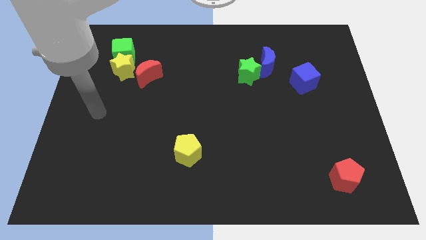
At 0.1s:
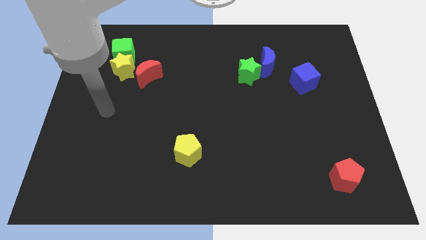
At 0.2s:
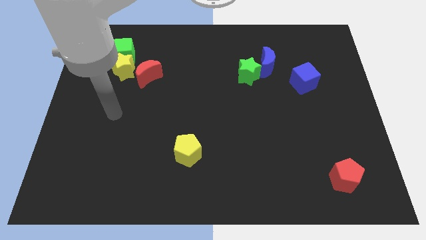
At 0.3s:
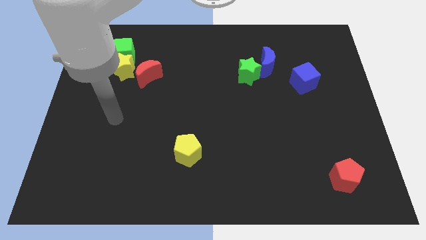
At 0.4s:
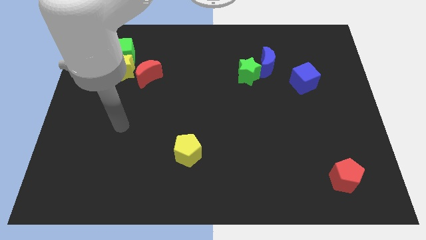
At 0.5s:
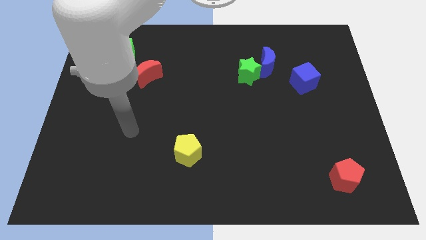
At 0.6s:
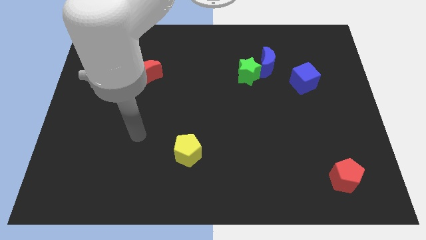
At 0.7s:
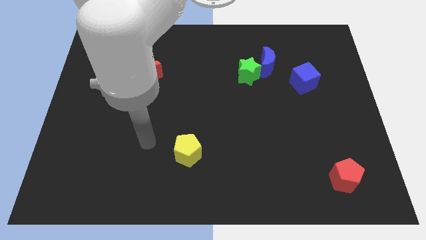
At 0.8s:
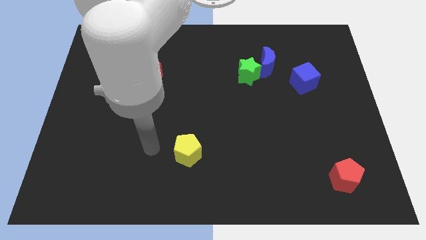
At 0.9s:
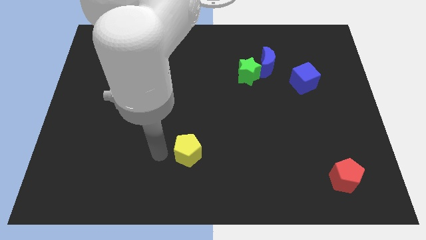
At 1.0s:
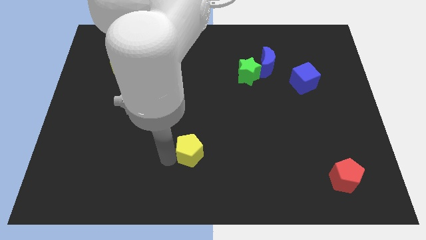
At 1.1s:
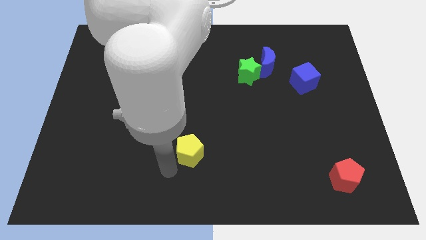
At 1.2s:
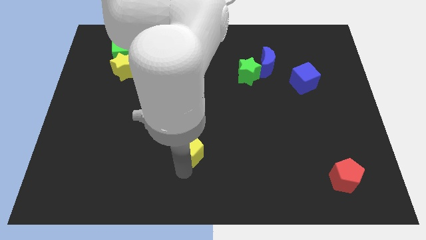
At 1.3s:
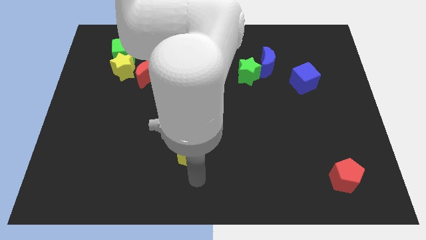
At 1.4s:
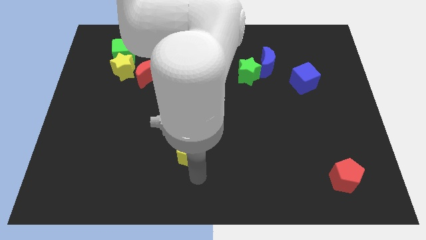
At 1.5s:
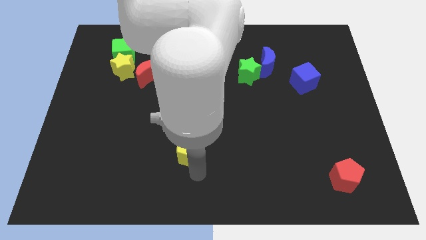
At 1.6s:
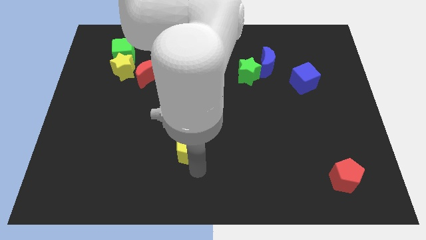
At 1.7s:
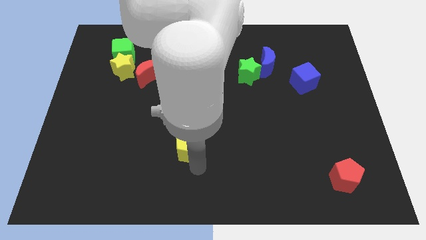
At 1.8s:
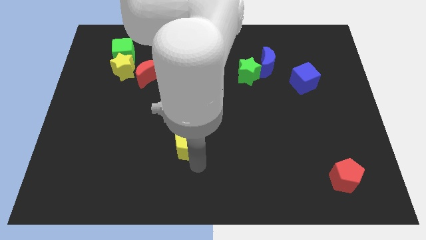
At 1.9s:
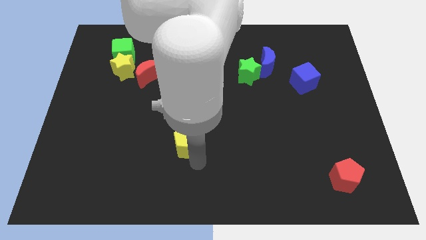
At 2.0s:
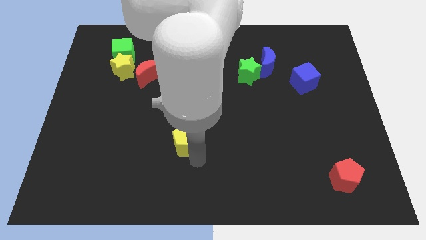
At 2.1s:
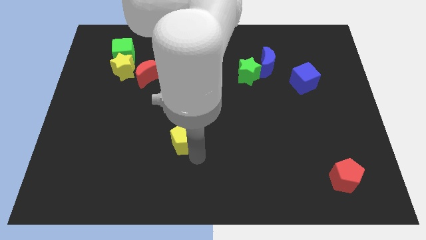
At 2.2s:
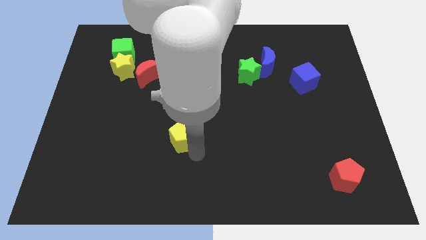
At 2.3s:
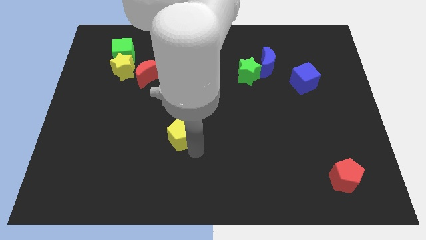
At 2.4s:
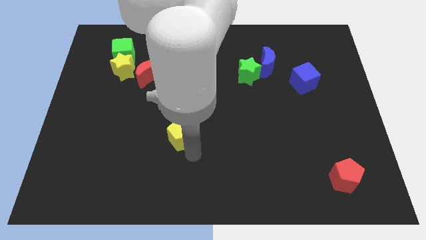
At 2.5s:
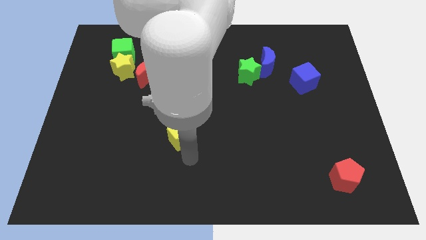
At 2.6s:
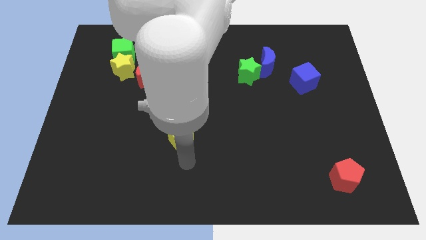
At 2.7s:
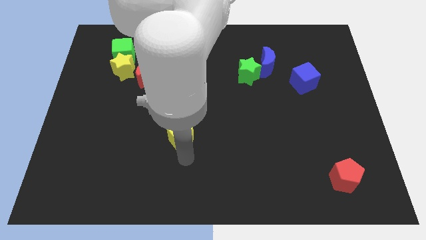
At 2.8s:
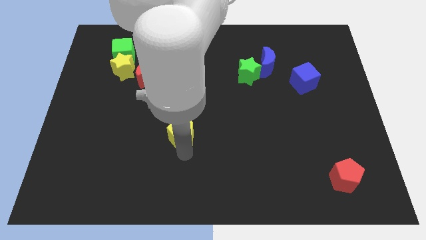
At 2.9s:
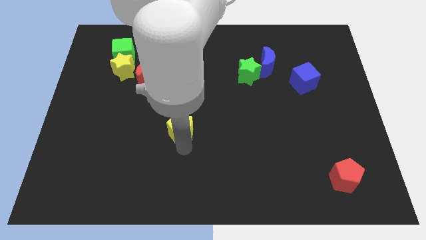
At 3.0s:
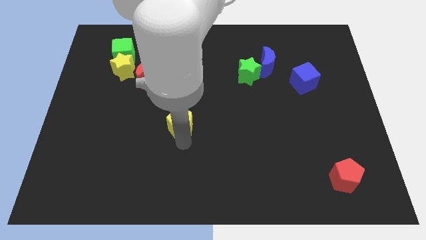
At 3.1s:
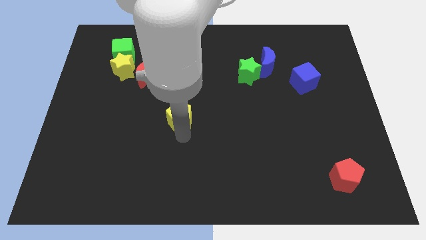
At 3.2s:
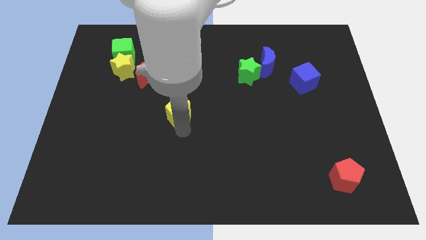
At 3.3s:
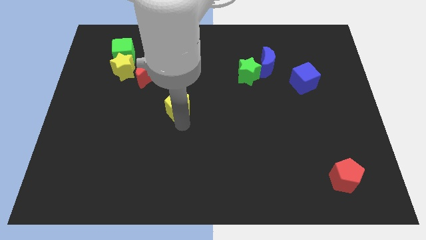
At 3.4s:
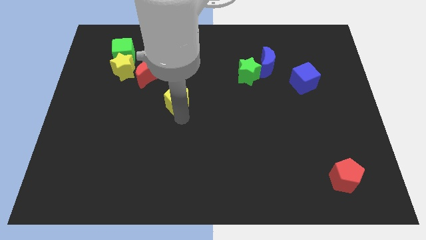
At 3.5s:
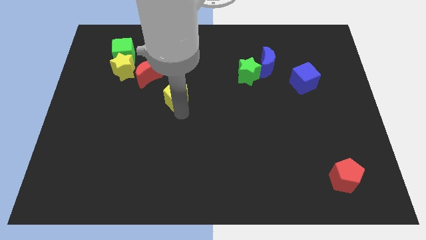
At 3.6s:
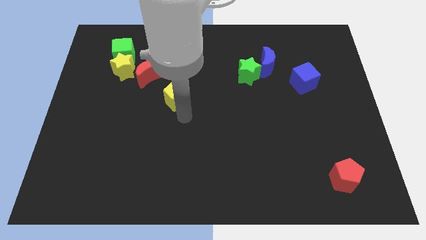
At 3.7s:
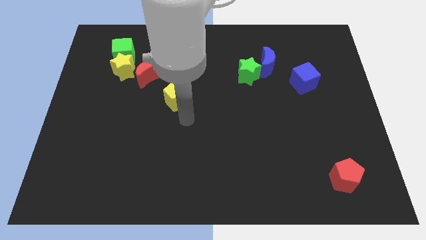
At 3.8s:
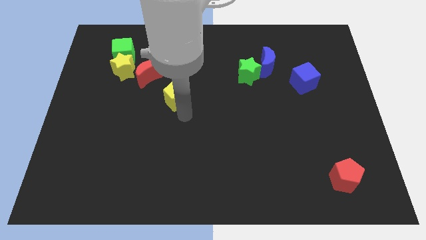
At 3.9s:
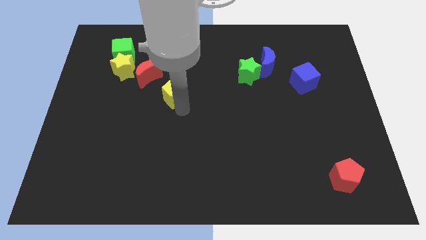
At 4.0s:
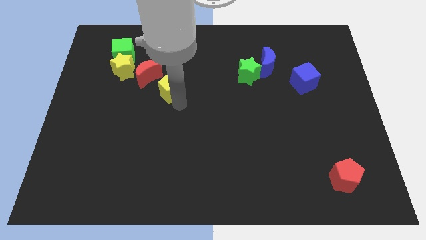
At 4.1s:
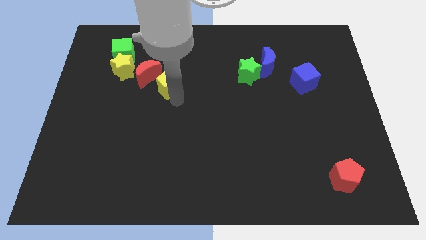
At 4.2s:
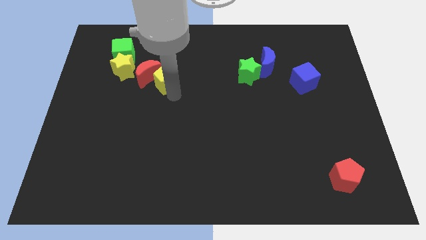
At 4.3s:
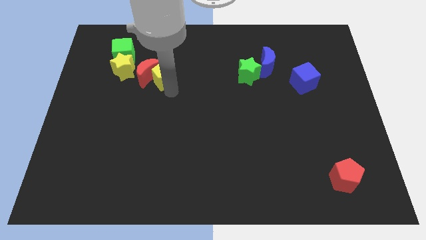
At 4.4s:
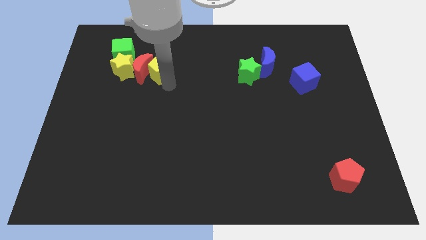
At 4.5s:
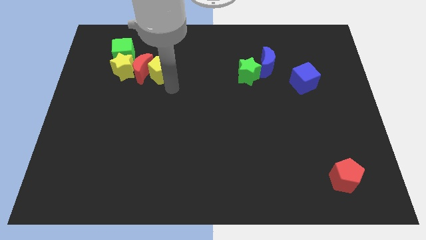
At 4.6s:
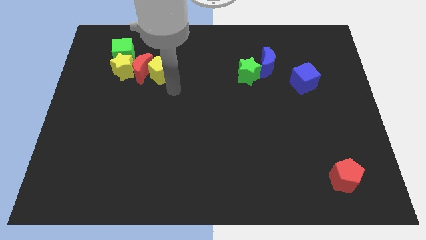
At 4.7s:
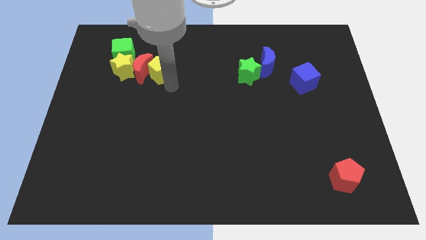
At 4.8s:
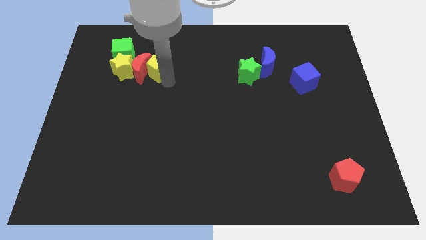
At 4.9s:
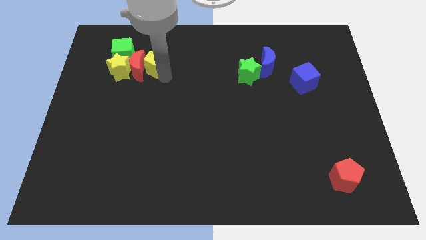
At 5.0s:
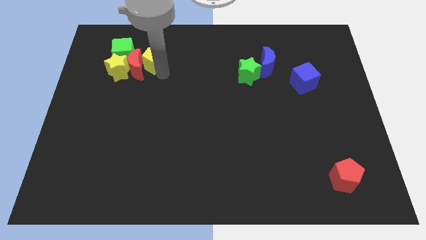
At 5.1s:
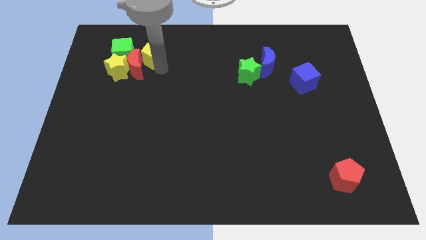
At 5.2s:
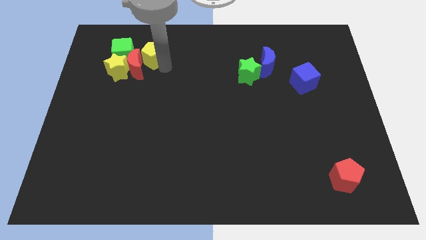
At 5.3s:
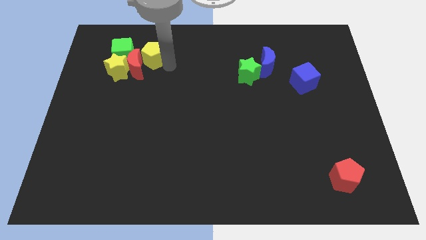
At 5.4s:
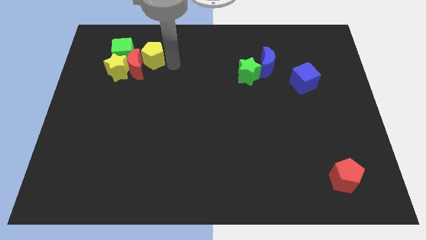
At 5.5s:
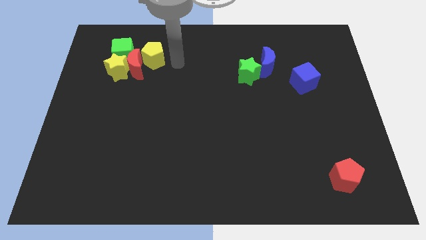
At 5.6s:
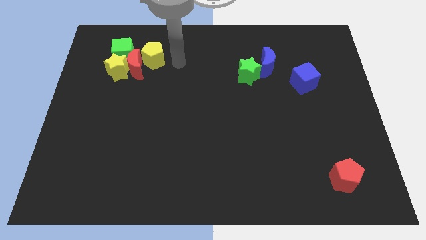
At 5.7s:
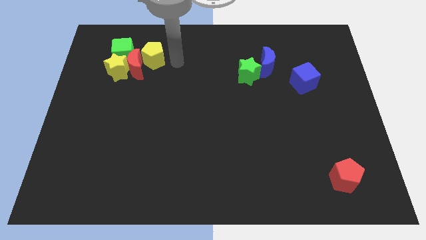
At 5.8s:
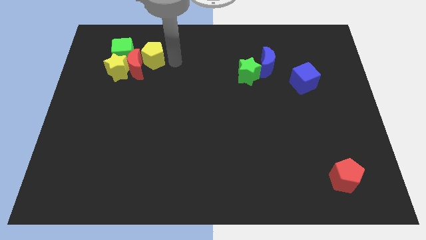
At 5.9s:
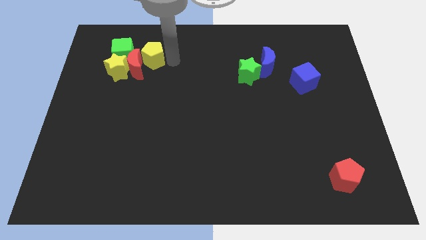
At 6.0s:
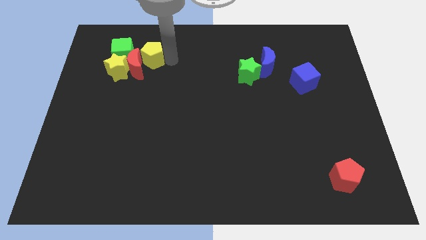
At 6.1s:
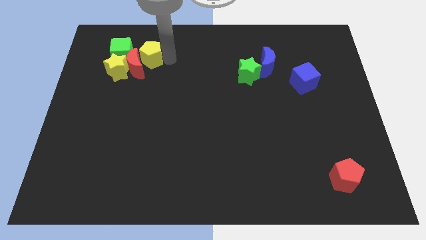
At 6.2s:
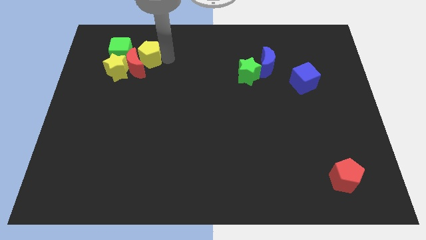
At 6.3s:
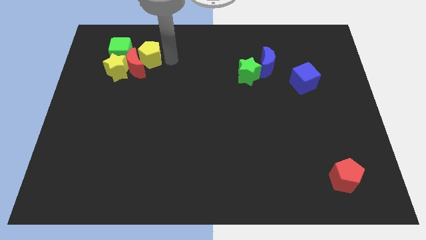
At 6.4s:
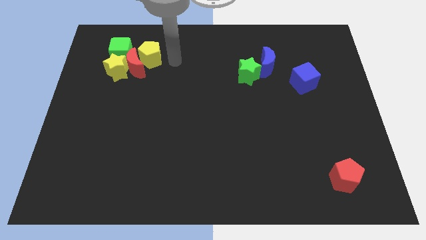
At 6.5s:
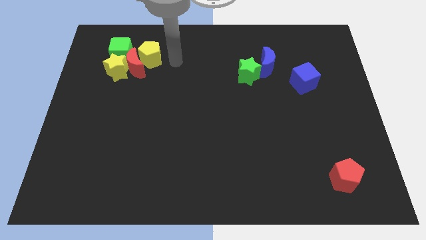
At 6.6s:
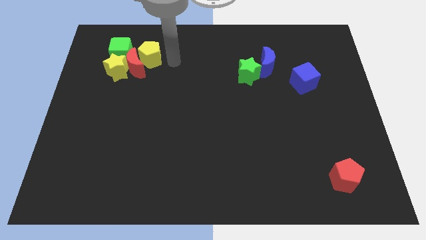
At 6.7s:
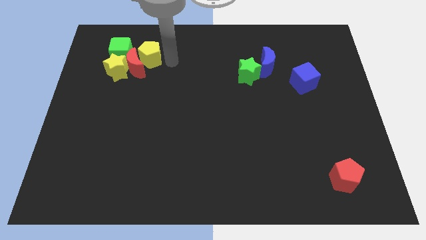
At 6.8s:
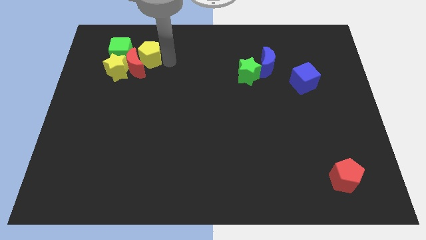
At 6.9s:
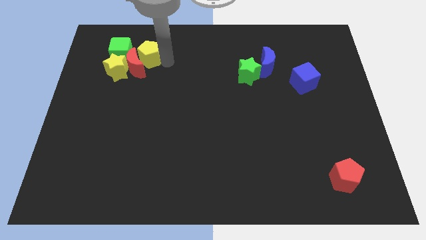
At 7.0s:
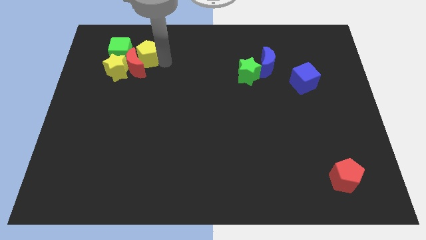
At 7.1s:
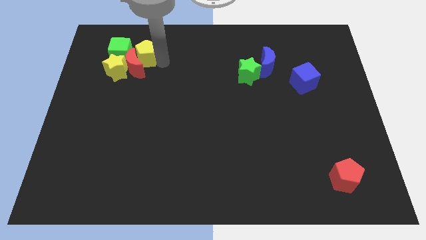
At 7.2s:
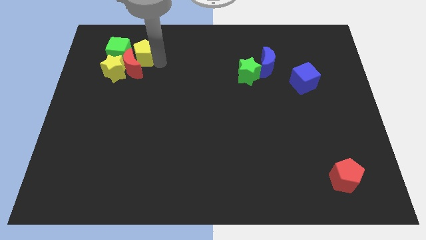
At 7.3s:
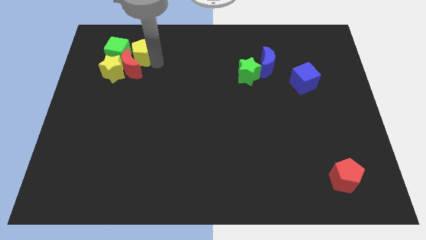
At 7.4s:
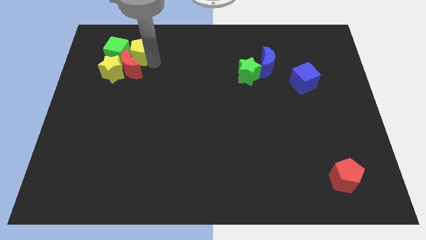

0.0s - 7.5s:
slide the yellow pentagon to the green cube
